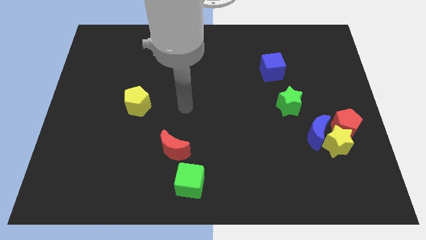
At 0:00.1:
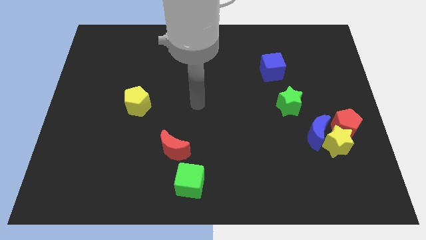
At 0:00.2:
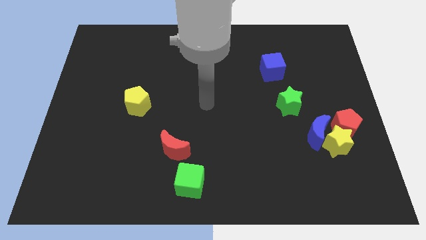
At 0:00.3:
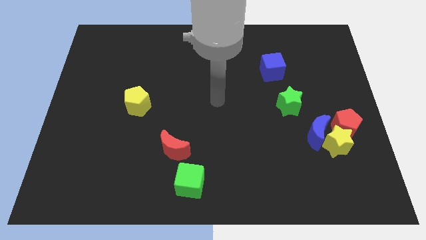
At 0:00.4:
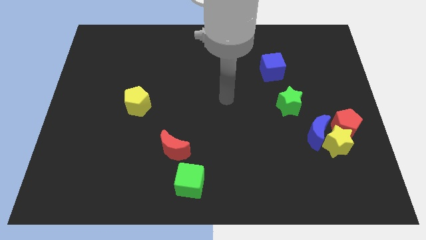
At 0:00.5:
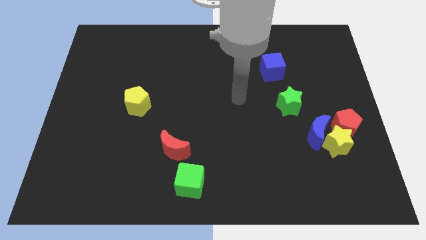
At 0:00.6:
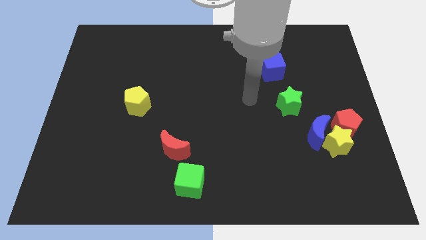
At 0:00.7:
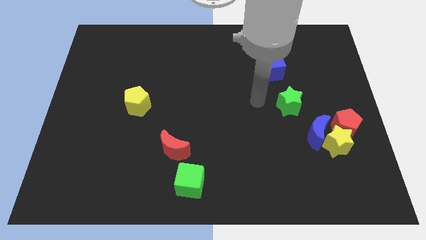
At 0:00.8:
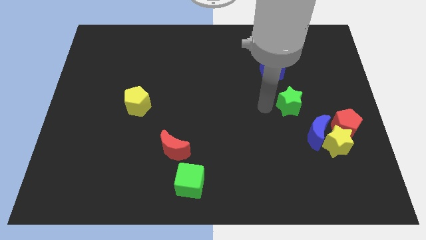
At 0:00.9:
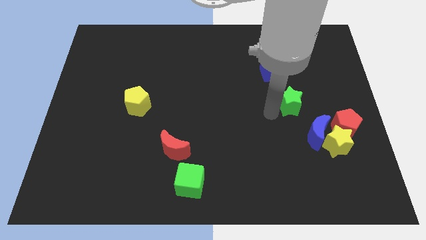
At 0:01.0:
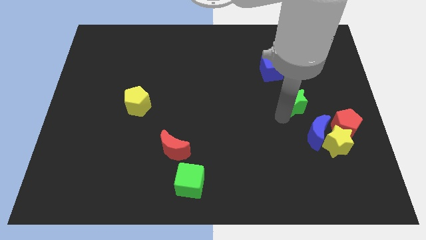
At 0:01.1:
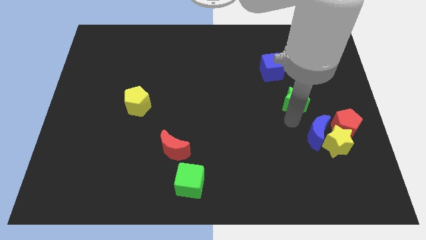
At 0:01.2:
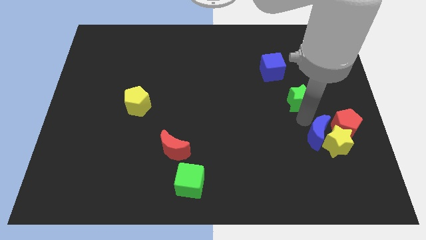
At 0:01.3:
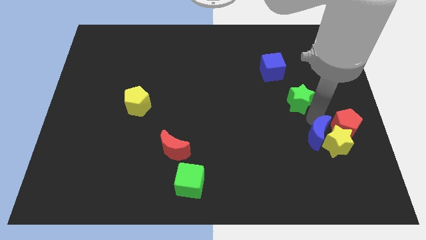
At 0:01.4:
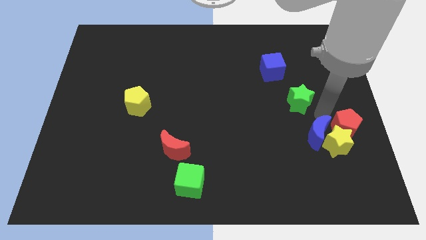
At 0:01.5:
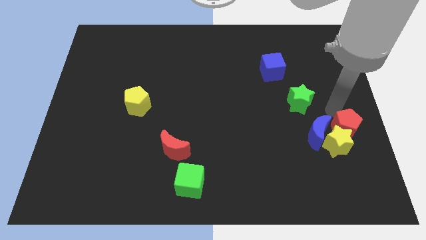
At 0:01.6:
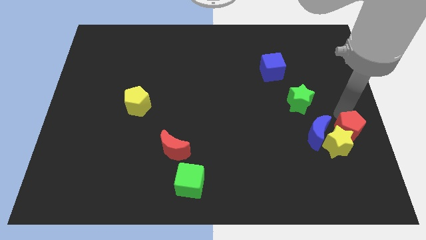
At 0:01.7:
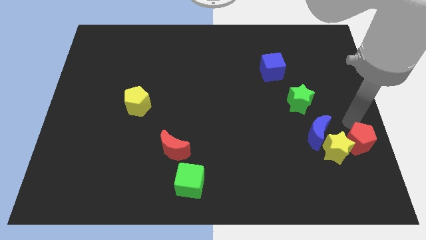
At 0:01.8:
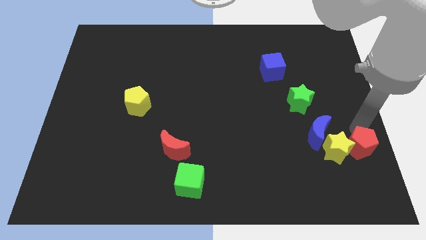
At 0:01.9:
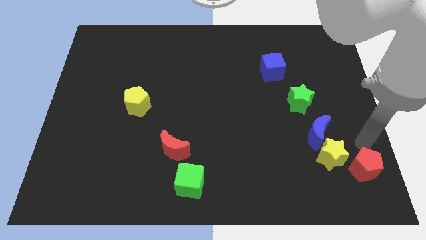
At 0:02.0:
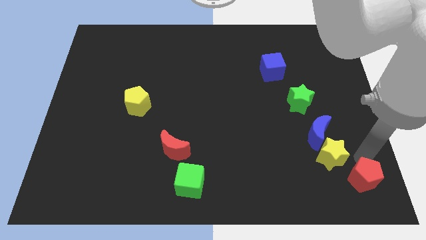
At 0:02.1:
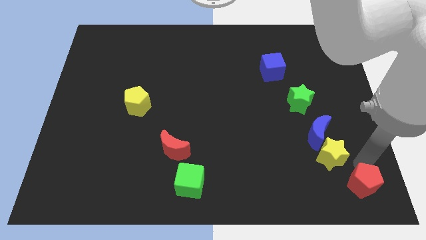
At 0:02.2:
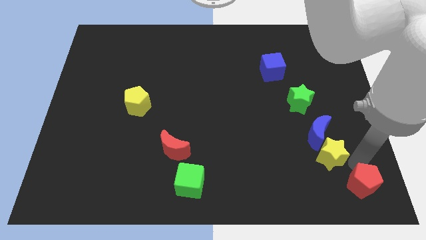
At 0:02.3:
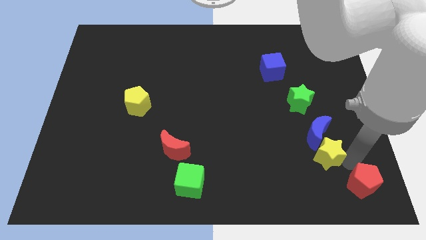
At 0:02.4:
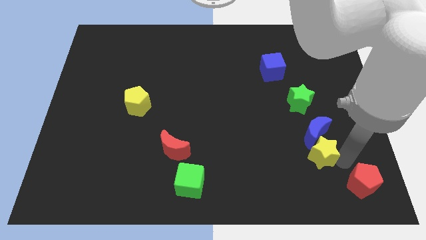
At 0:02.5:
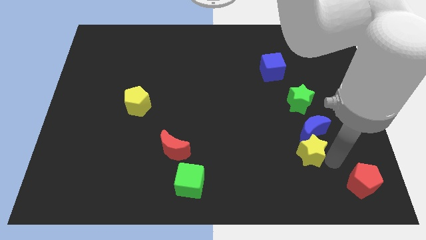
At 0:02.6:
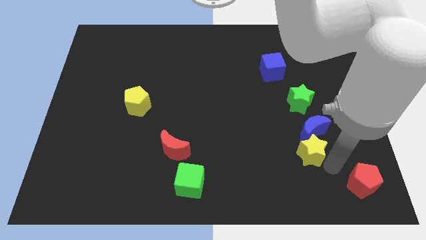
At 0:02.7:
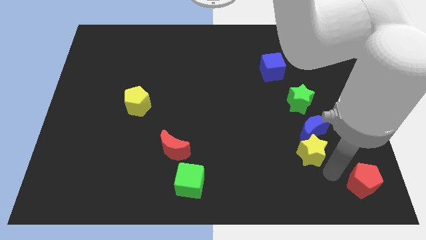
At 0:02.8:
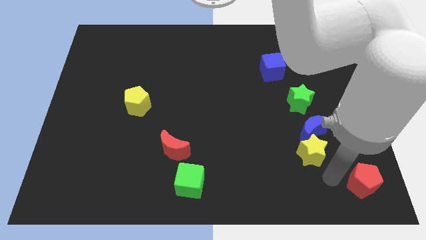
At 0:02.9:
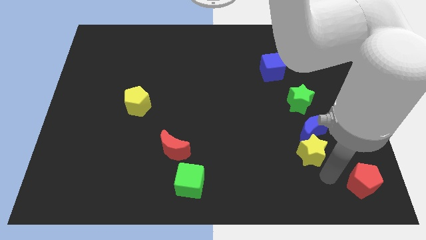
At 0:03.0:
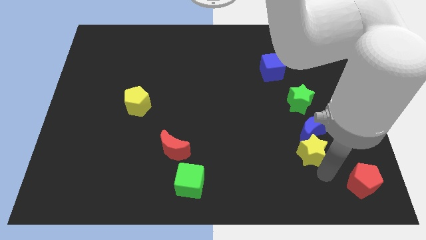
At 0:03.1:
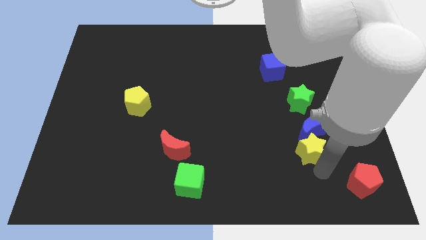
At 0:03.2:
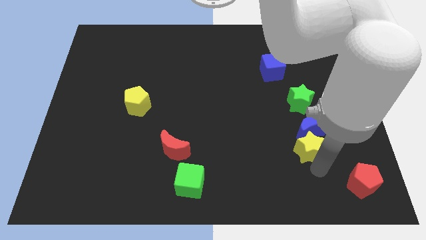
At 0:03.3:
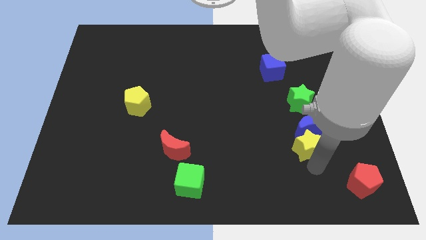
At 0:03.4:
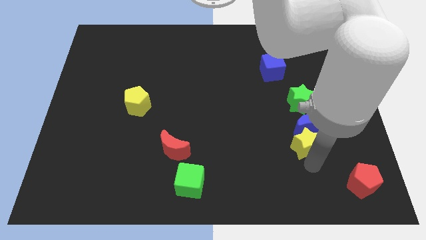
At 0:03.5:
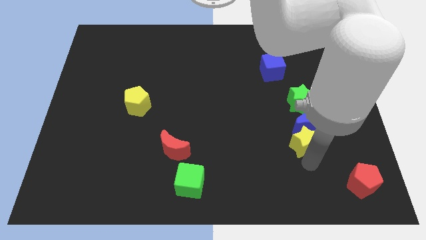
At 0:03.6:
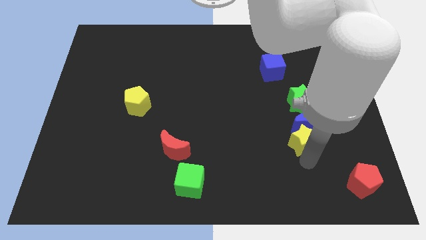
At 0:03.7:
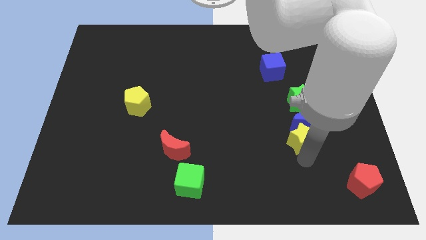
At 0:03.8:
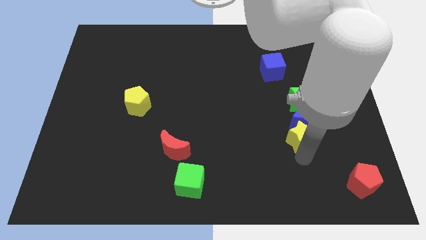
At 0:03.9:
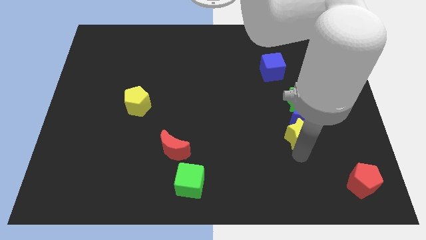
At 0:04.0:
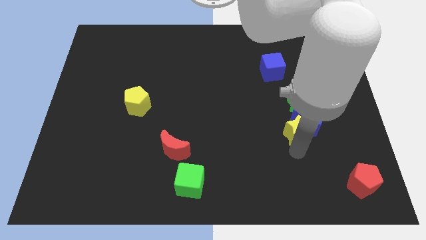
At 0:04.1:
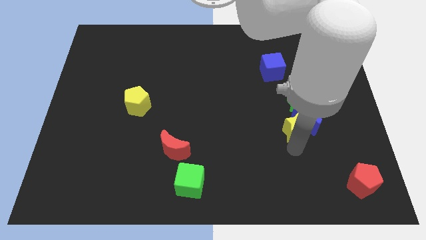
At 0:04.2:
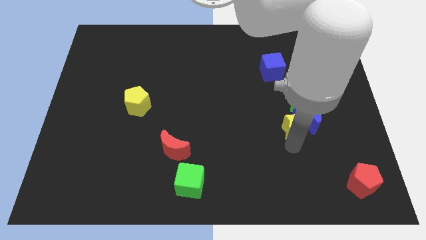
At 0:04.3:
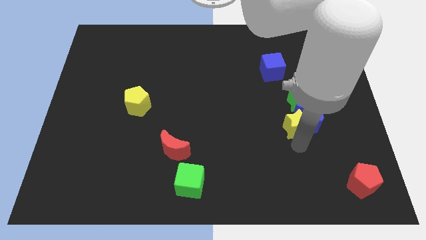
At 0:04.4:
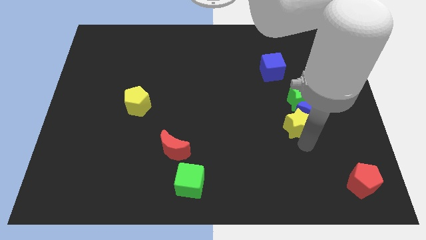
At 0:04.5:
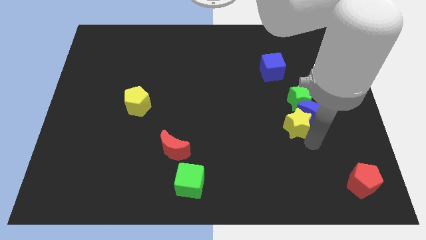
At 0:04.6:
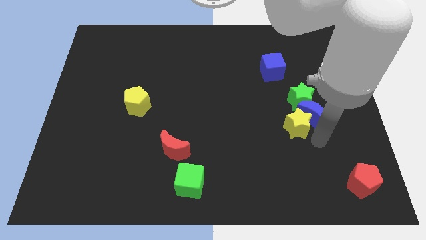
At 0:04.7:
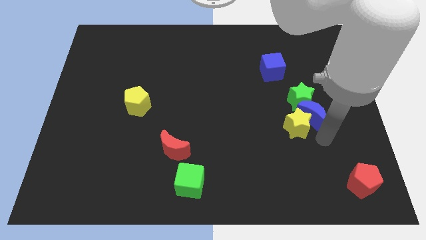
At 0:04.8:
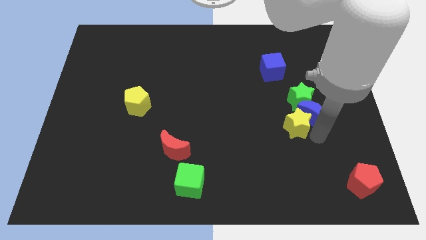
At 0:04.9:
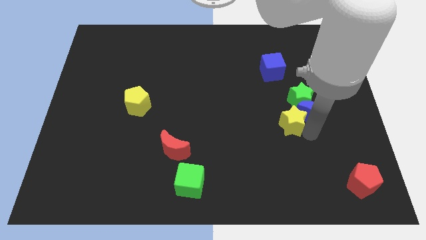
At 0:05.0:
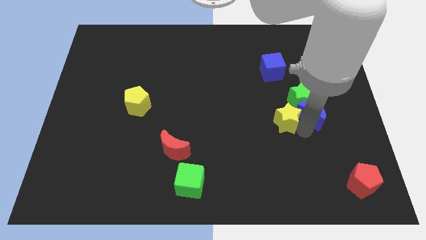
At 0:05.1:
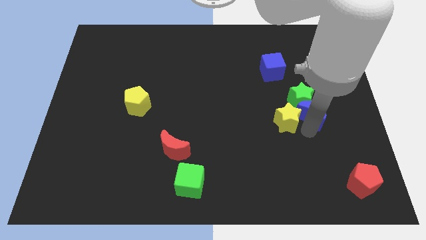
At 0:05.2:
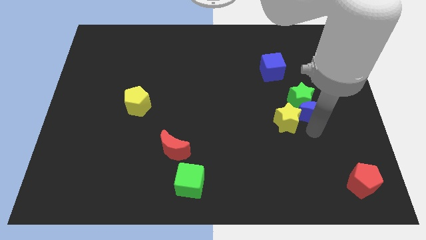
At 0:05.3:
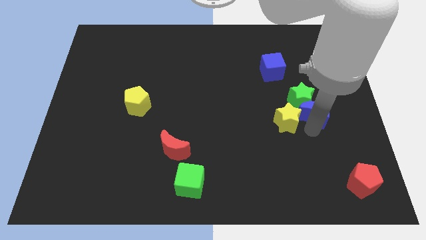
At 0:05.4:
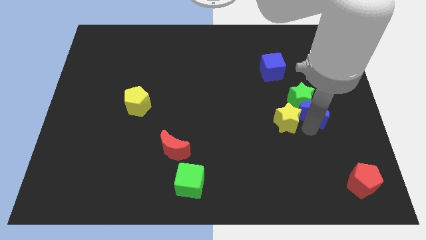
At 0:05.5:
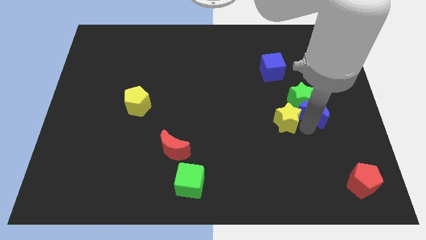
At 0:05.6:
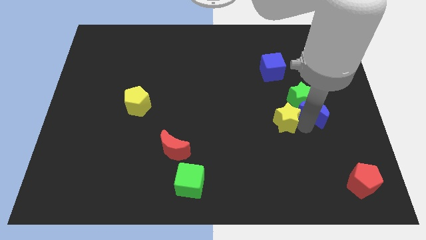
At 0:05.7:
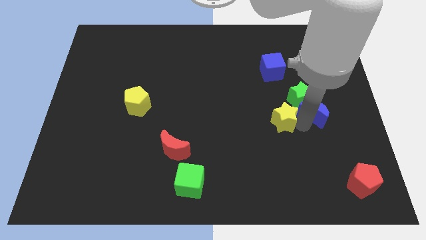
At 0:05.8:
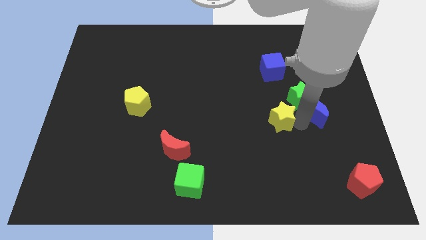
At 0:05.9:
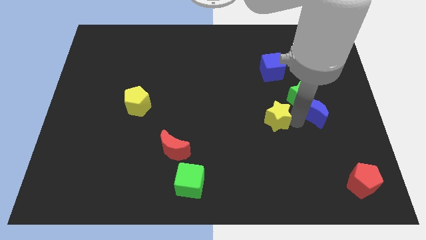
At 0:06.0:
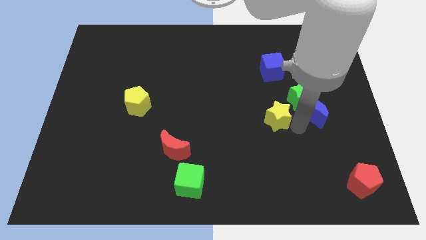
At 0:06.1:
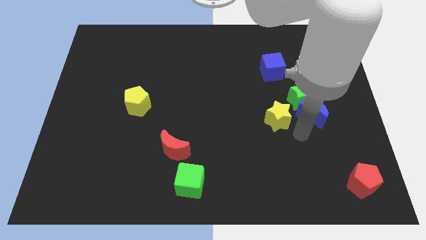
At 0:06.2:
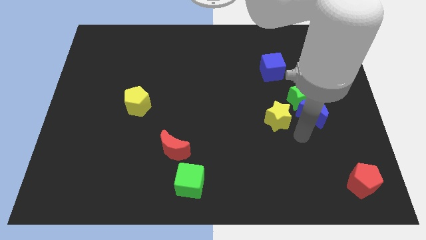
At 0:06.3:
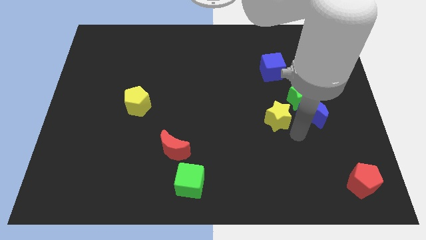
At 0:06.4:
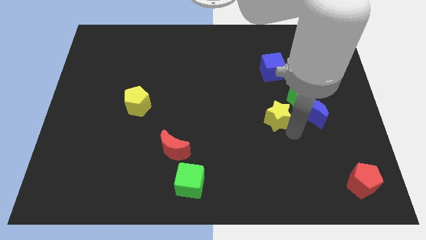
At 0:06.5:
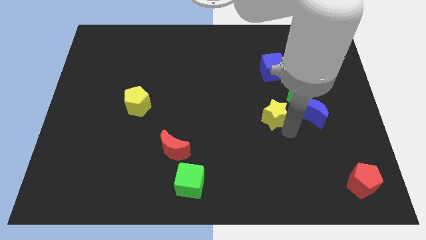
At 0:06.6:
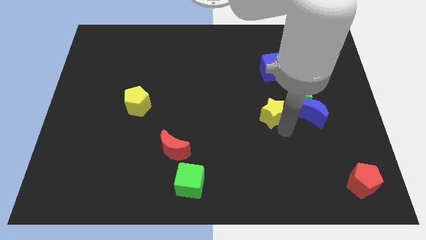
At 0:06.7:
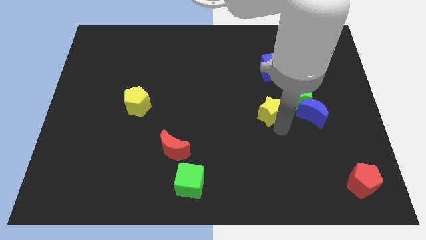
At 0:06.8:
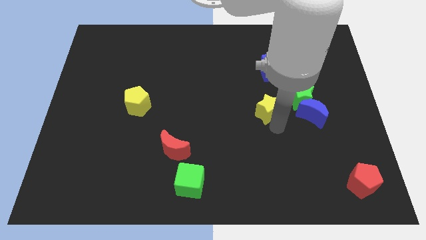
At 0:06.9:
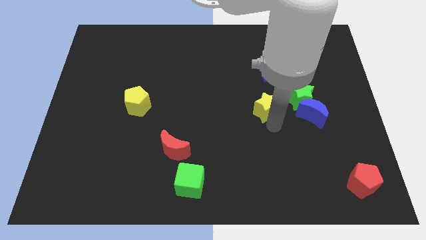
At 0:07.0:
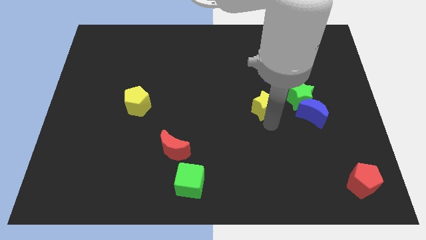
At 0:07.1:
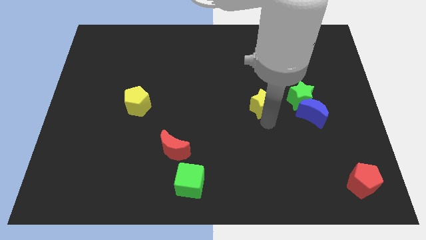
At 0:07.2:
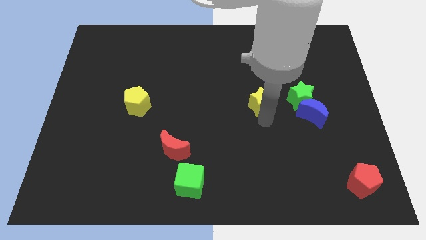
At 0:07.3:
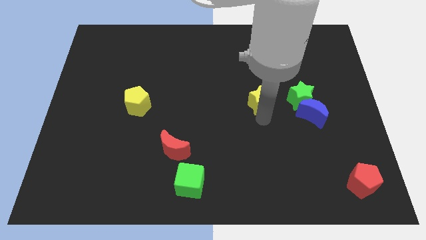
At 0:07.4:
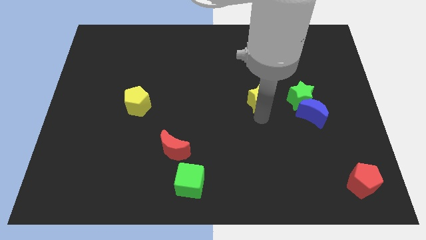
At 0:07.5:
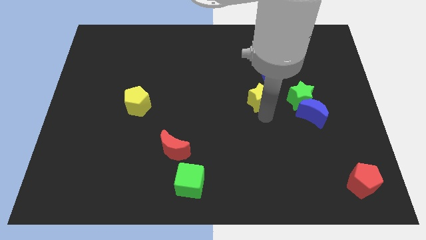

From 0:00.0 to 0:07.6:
slide the yellow star diagonally upwards and left

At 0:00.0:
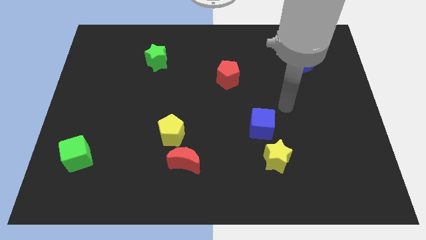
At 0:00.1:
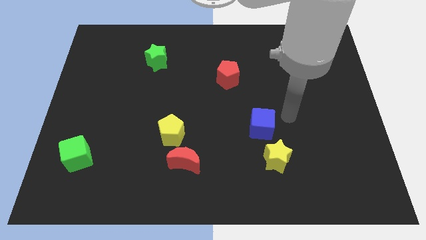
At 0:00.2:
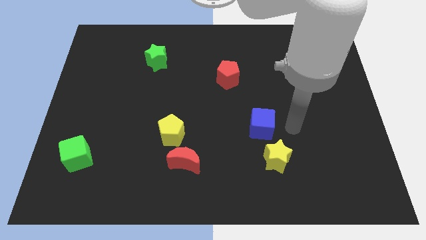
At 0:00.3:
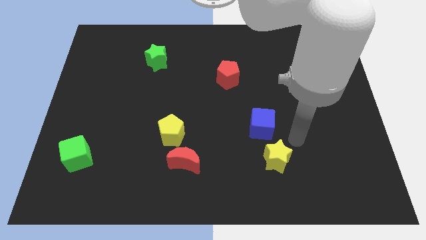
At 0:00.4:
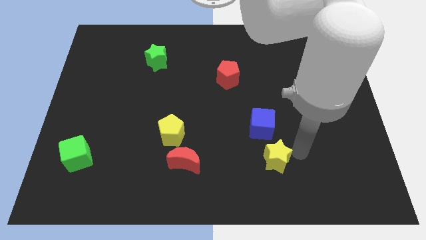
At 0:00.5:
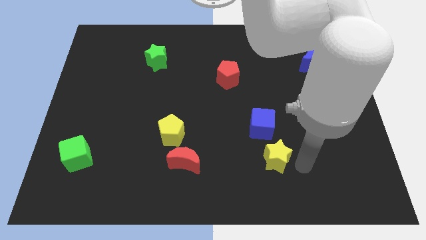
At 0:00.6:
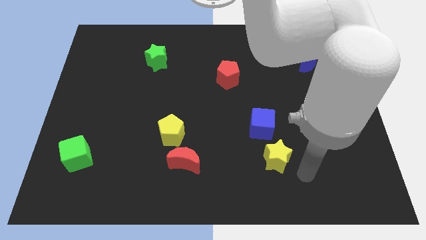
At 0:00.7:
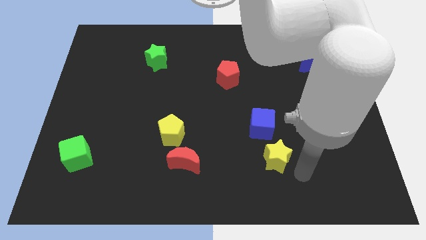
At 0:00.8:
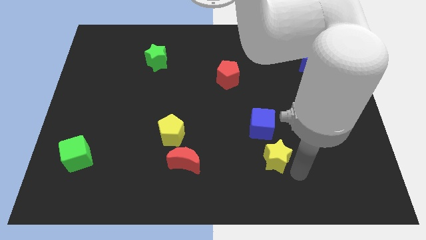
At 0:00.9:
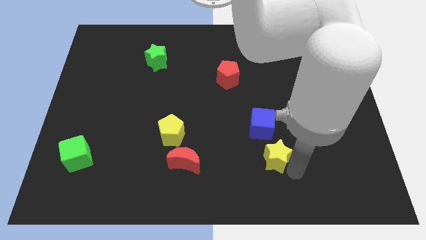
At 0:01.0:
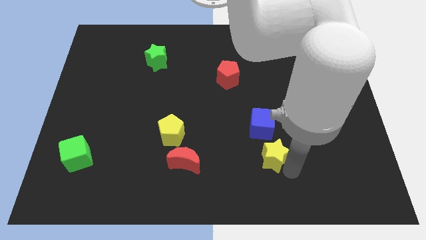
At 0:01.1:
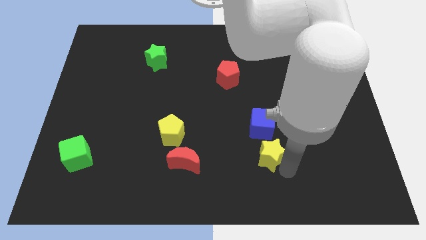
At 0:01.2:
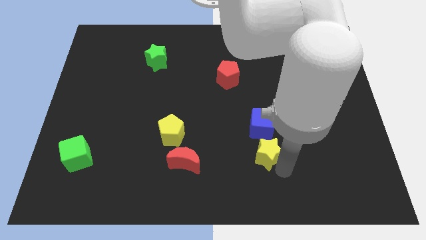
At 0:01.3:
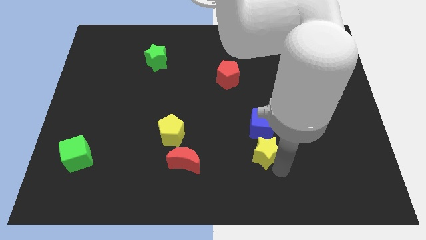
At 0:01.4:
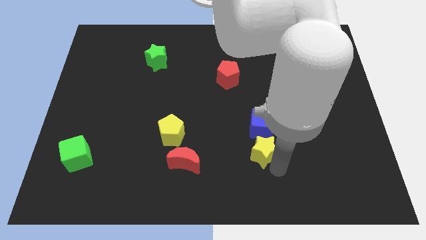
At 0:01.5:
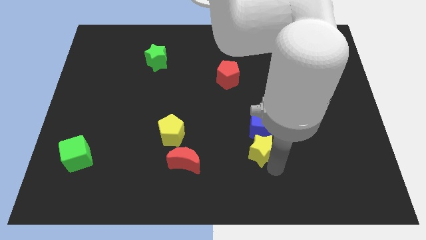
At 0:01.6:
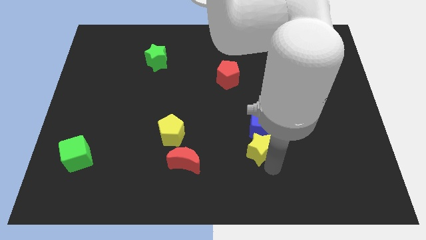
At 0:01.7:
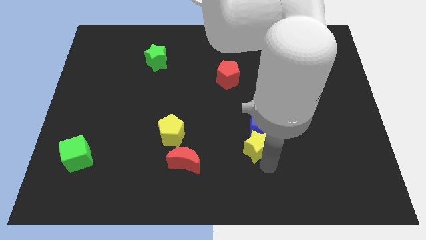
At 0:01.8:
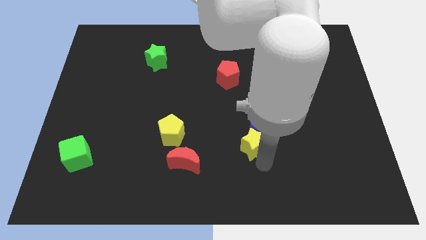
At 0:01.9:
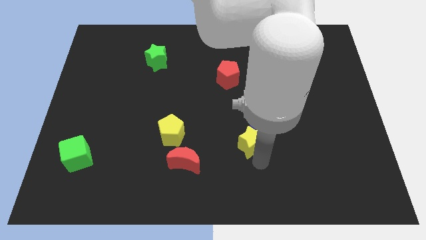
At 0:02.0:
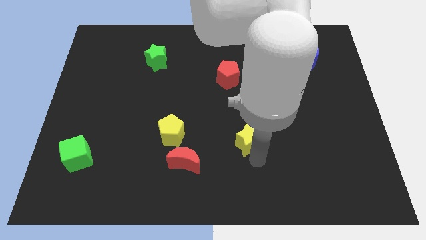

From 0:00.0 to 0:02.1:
push the yellow star slightly upwards and then left
